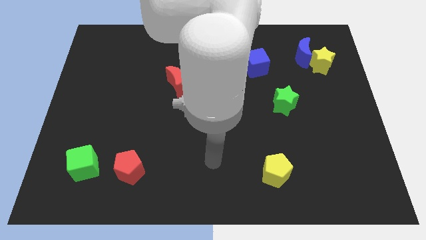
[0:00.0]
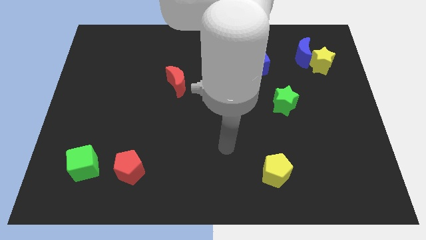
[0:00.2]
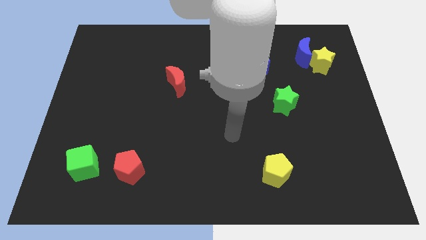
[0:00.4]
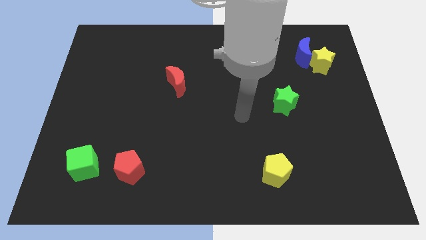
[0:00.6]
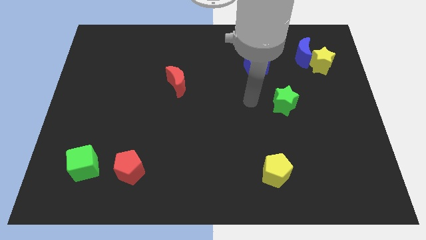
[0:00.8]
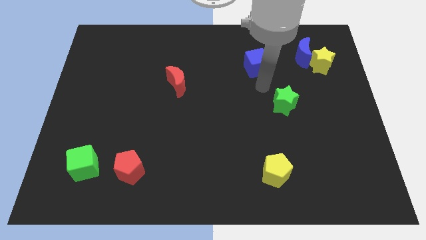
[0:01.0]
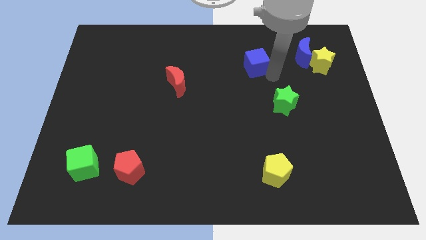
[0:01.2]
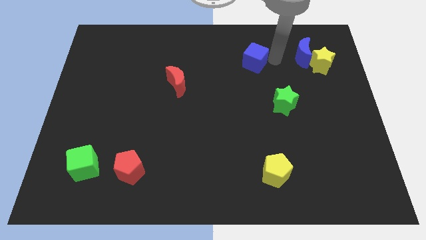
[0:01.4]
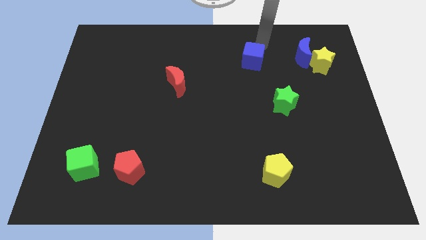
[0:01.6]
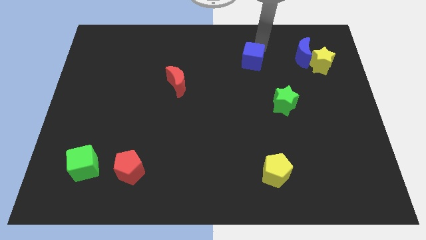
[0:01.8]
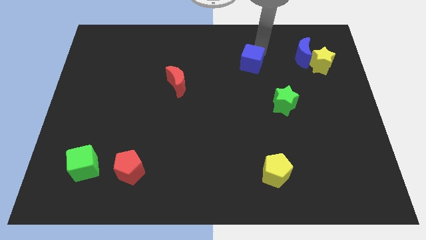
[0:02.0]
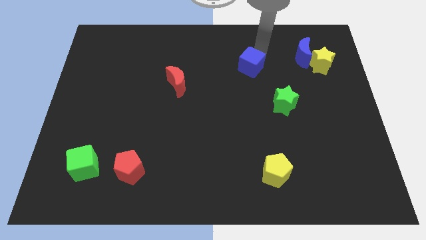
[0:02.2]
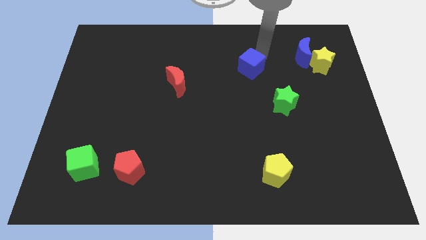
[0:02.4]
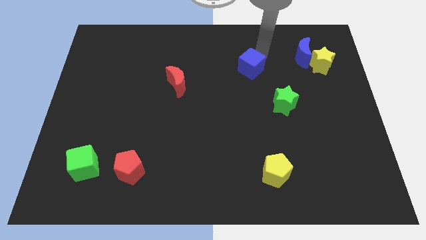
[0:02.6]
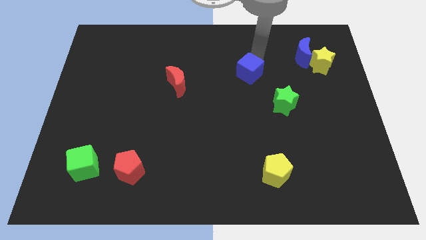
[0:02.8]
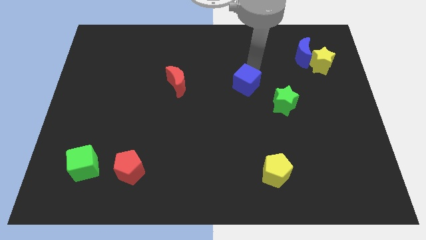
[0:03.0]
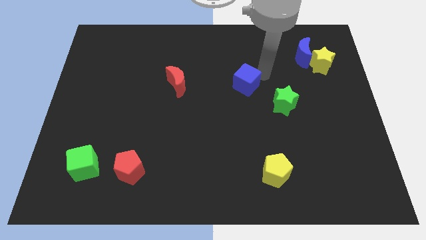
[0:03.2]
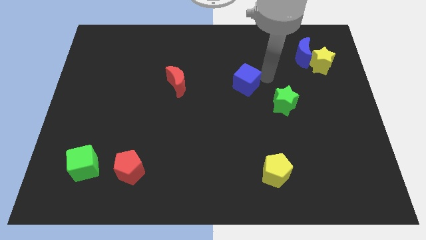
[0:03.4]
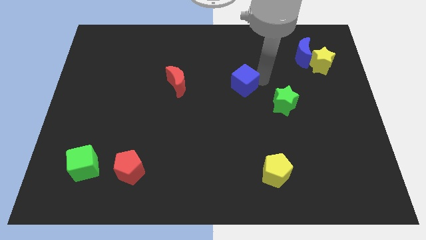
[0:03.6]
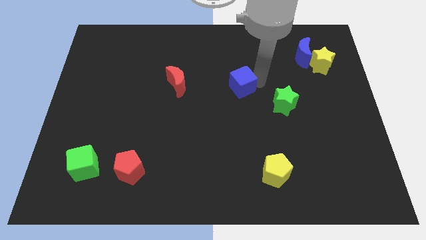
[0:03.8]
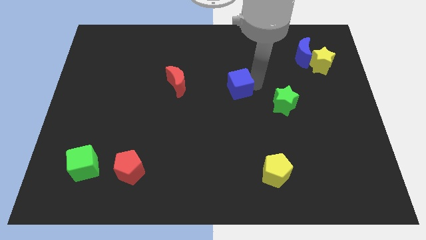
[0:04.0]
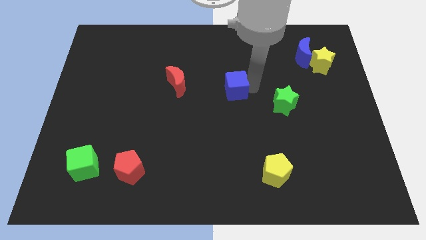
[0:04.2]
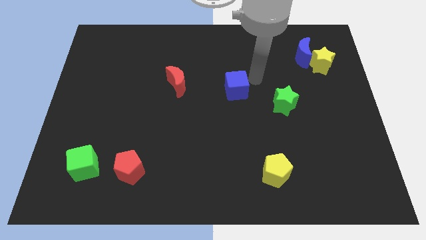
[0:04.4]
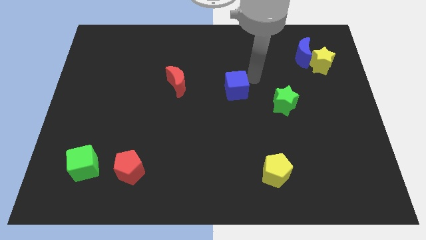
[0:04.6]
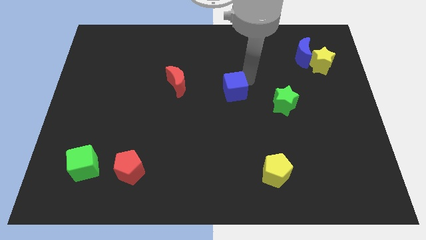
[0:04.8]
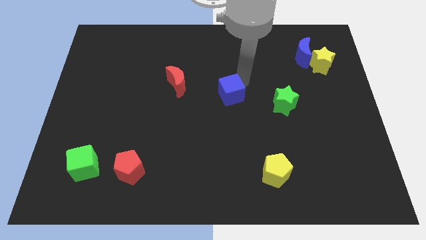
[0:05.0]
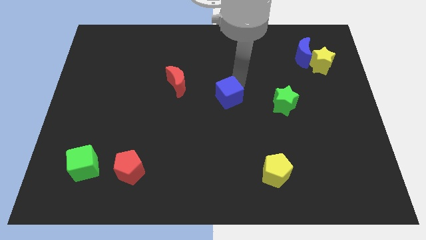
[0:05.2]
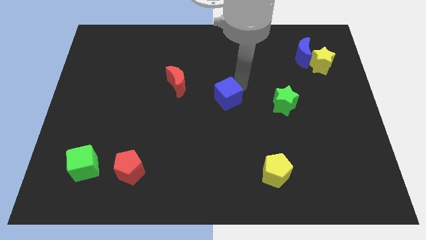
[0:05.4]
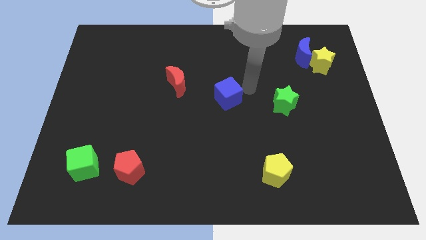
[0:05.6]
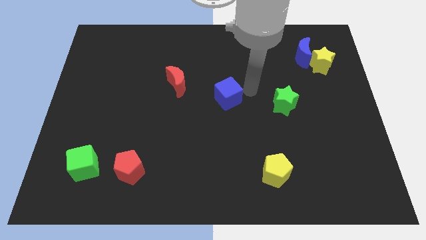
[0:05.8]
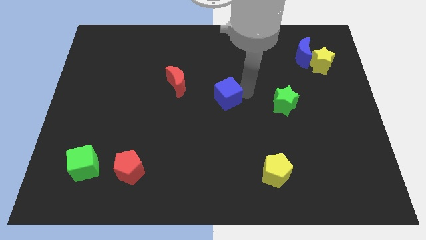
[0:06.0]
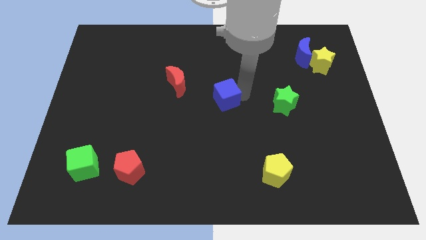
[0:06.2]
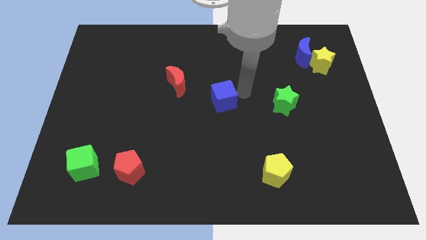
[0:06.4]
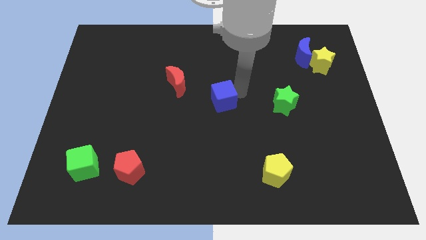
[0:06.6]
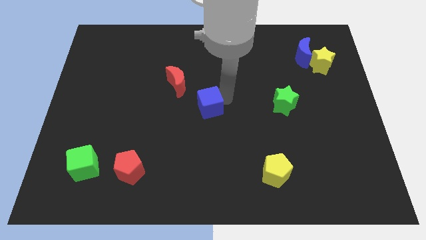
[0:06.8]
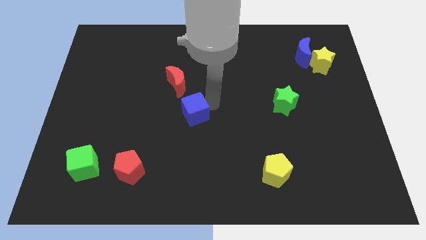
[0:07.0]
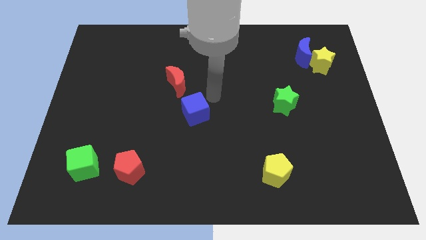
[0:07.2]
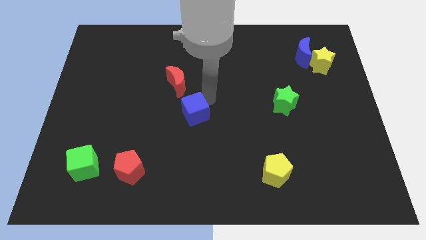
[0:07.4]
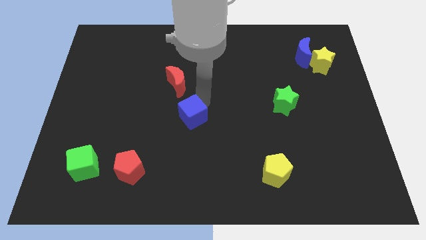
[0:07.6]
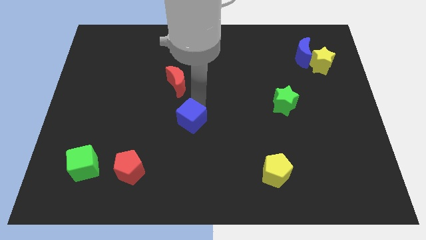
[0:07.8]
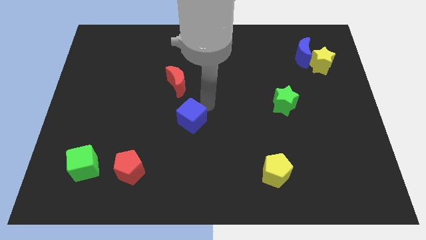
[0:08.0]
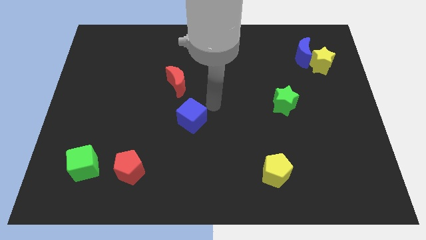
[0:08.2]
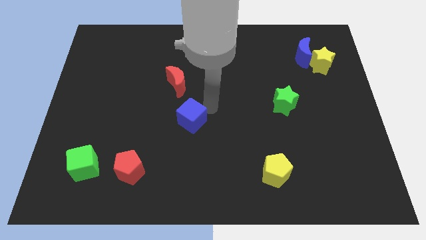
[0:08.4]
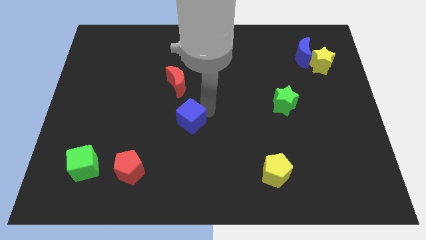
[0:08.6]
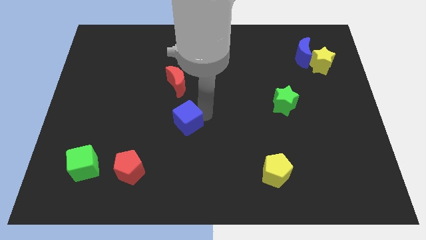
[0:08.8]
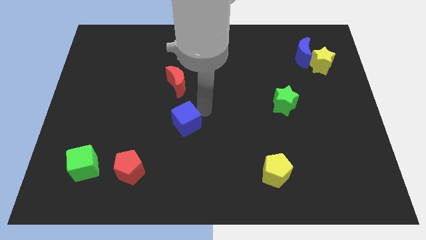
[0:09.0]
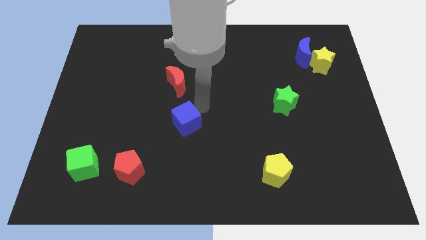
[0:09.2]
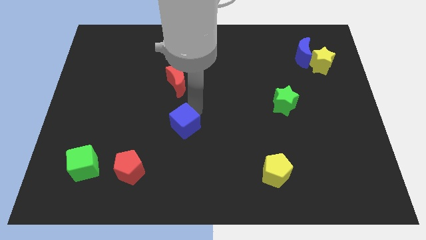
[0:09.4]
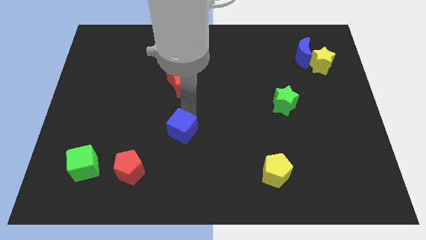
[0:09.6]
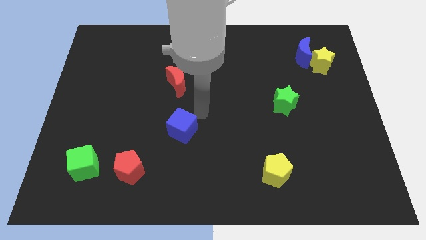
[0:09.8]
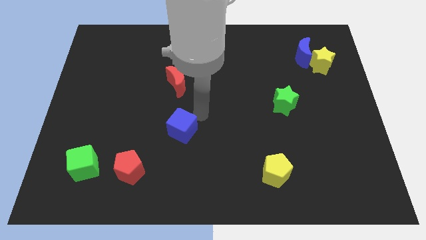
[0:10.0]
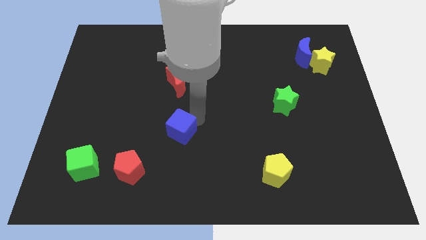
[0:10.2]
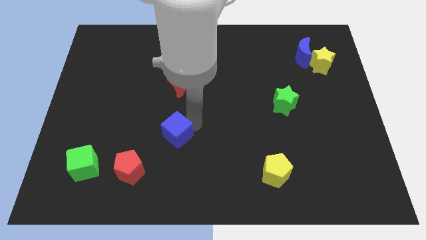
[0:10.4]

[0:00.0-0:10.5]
slide the blue cube to the top right side of the red pentagon

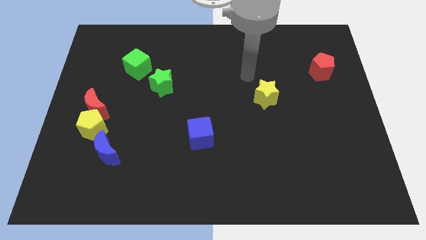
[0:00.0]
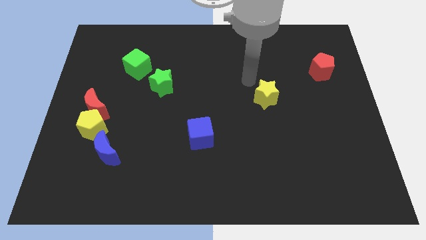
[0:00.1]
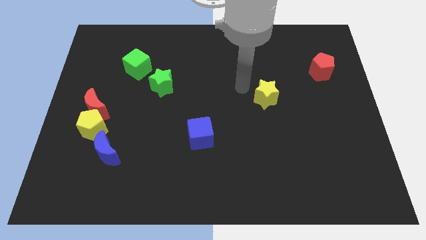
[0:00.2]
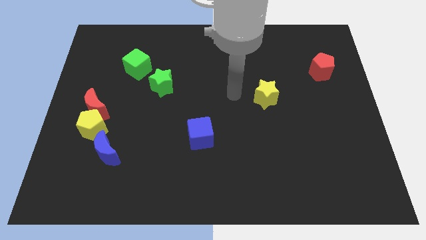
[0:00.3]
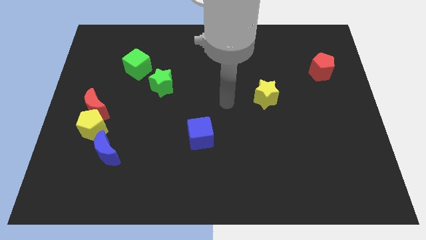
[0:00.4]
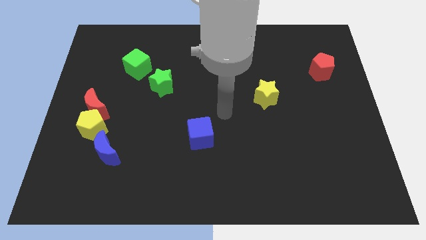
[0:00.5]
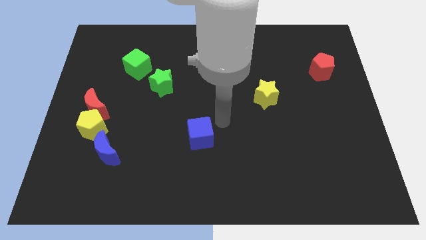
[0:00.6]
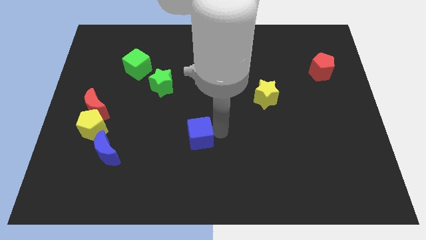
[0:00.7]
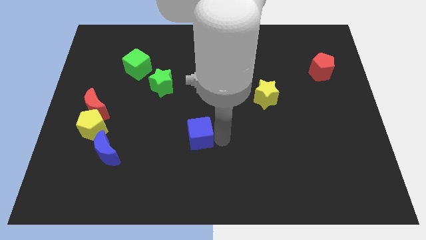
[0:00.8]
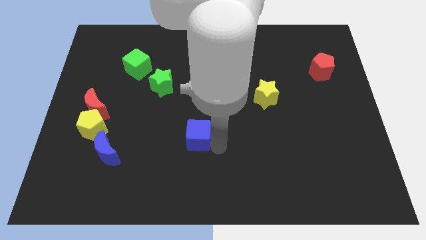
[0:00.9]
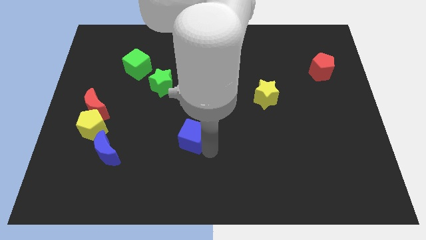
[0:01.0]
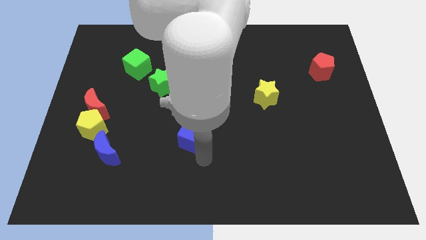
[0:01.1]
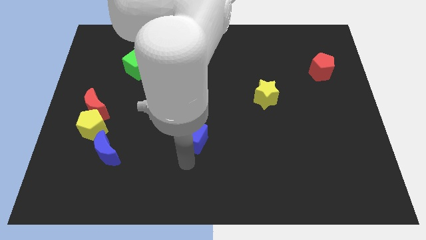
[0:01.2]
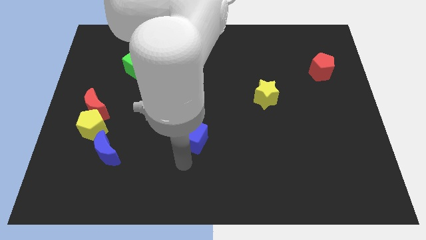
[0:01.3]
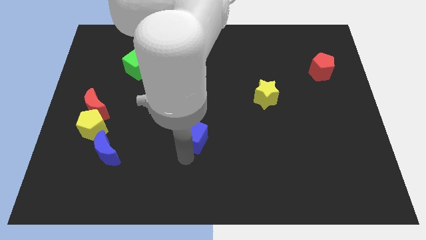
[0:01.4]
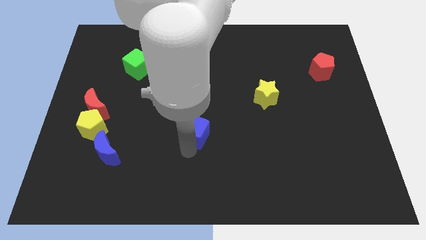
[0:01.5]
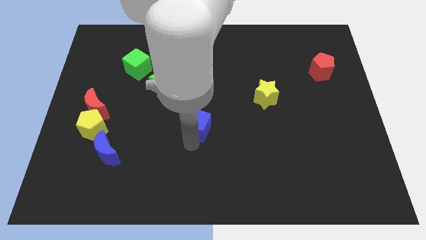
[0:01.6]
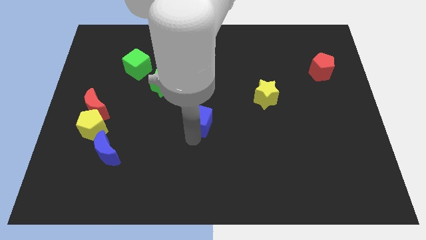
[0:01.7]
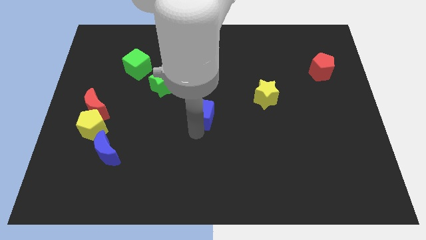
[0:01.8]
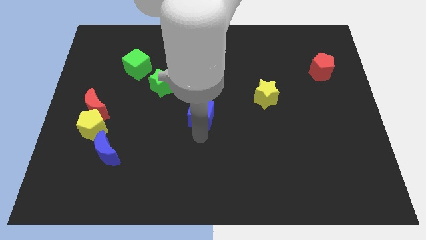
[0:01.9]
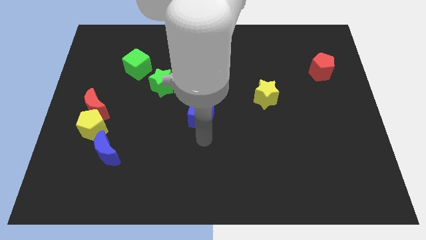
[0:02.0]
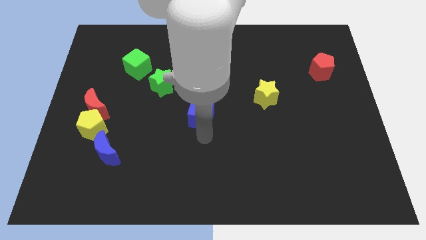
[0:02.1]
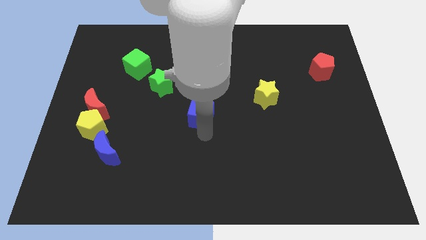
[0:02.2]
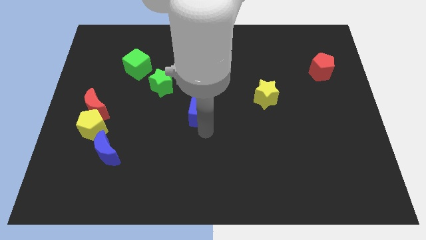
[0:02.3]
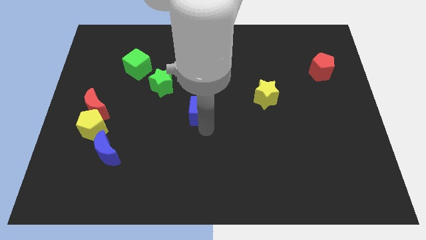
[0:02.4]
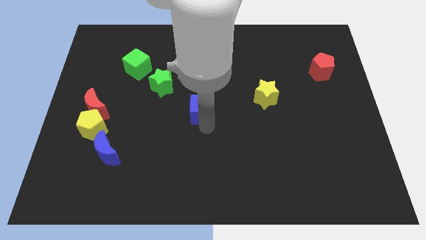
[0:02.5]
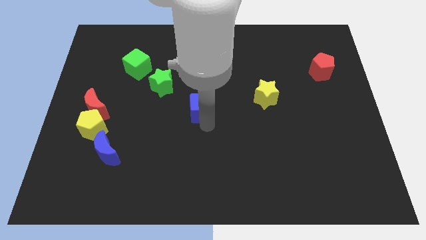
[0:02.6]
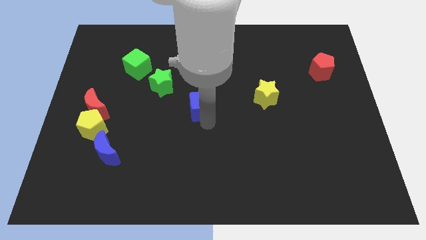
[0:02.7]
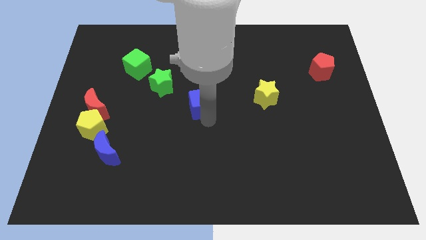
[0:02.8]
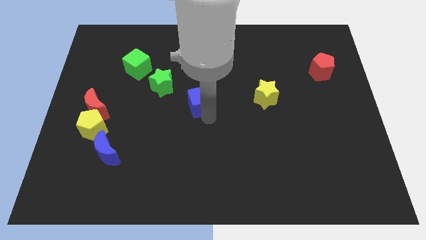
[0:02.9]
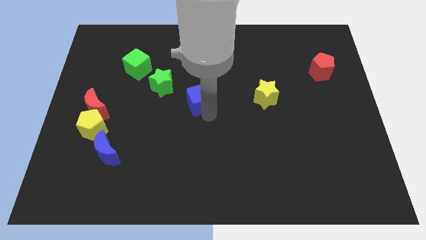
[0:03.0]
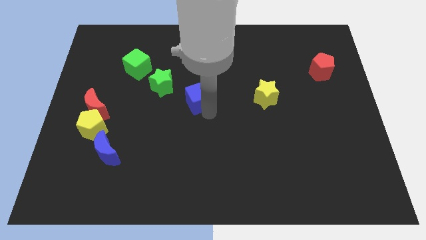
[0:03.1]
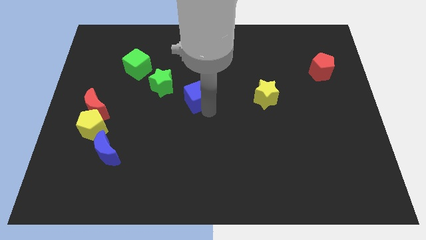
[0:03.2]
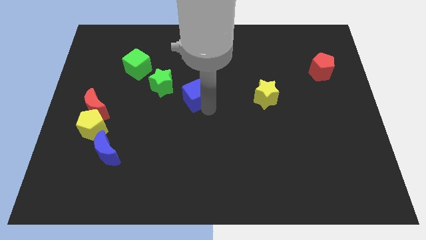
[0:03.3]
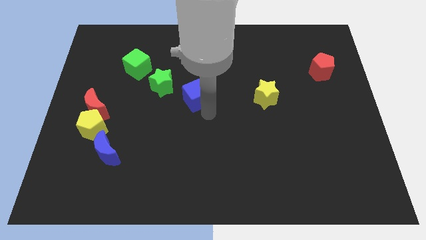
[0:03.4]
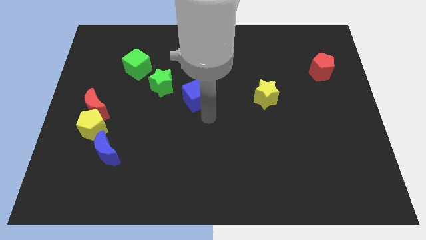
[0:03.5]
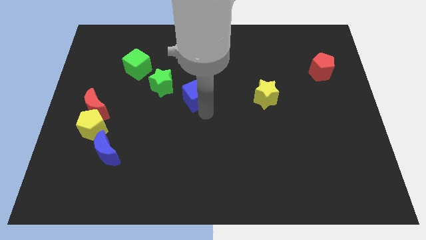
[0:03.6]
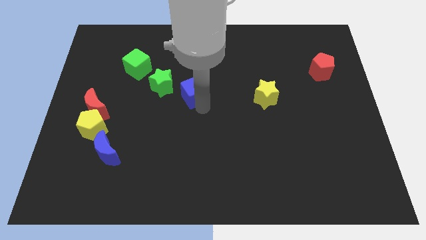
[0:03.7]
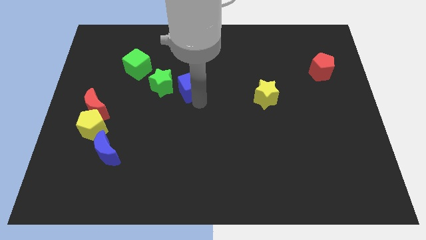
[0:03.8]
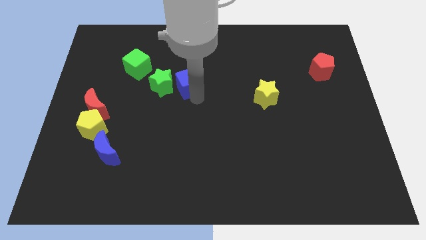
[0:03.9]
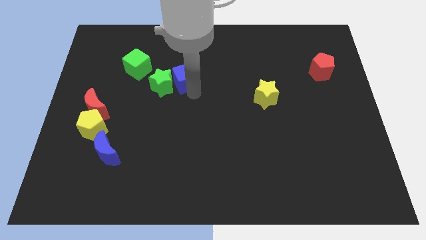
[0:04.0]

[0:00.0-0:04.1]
move the blue cube just right of the green cube
